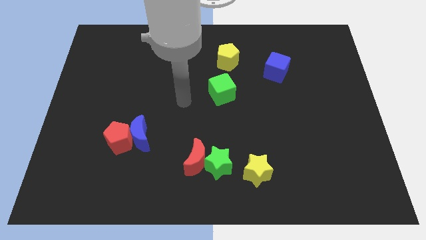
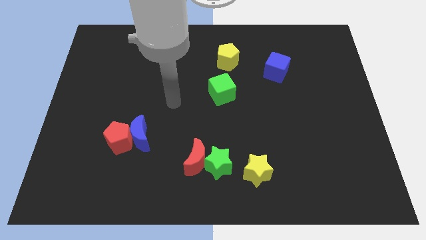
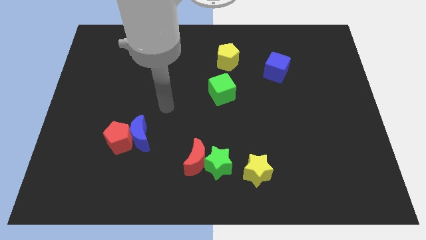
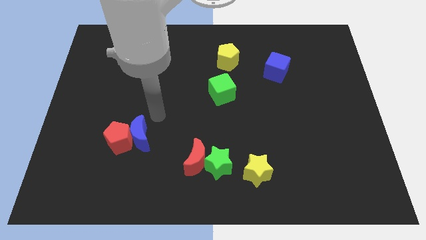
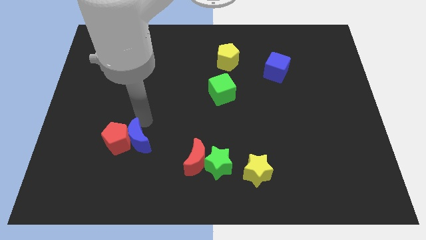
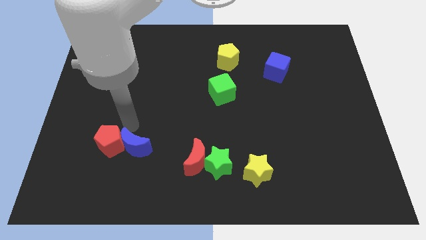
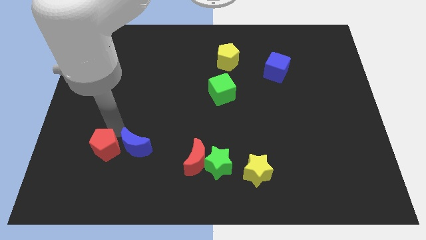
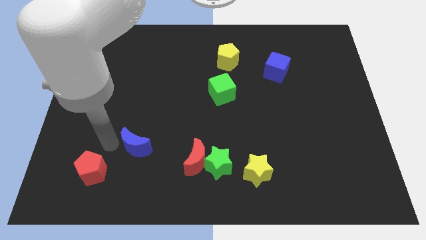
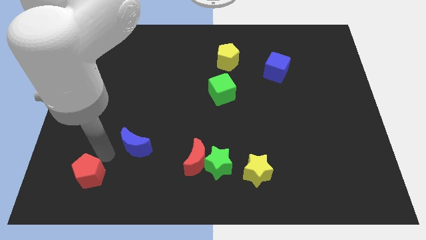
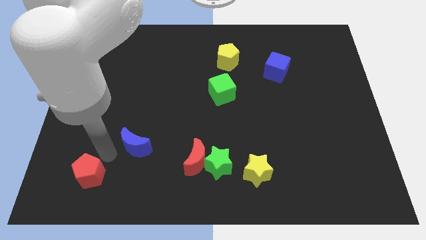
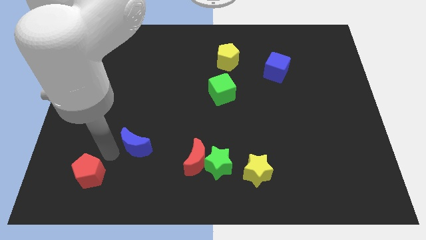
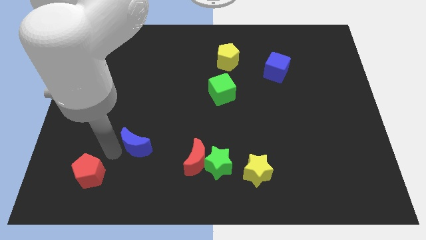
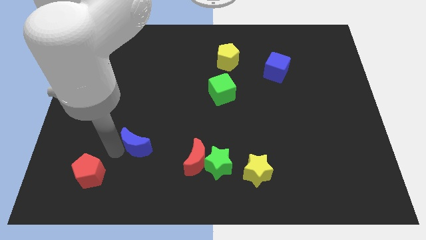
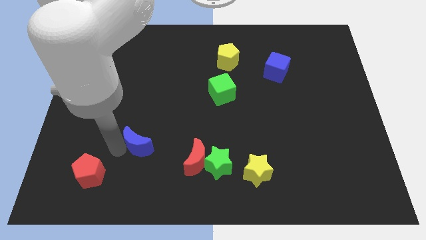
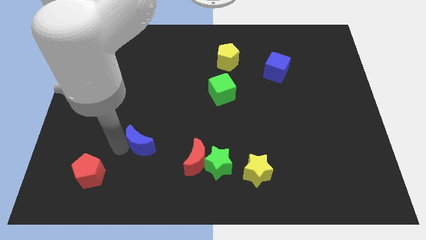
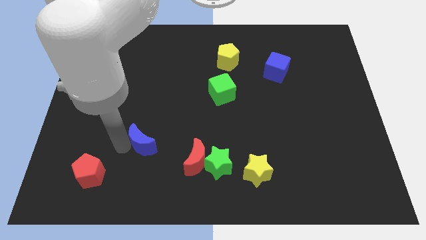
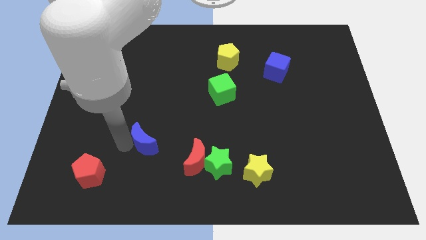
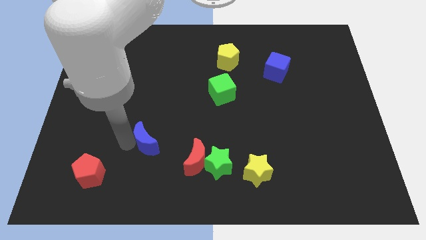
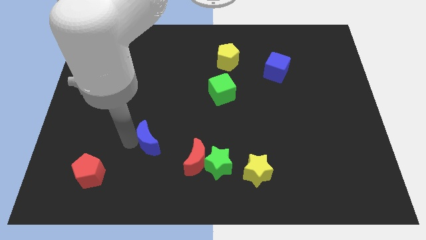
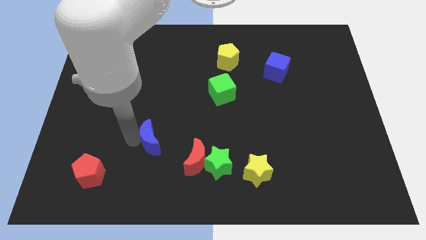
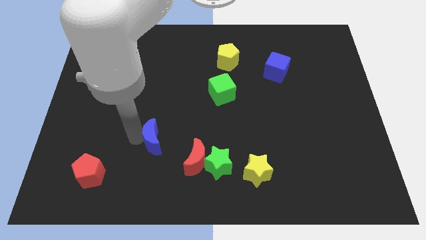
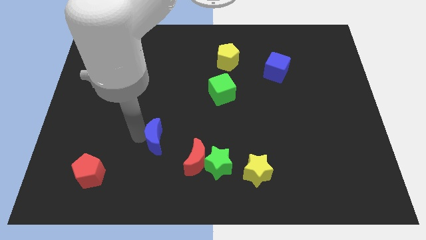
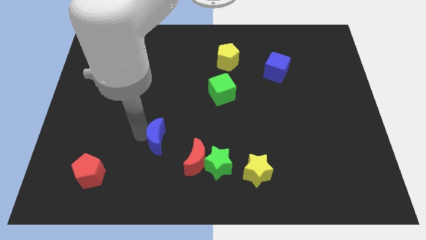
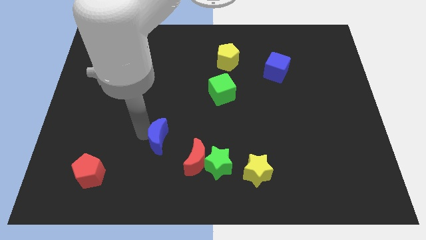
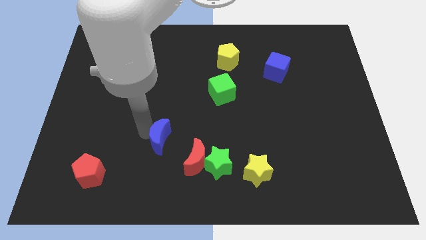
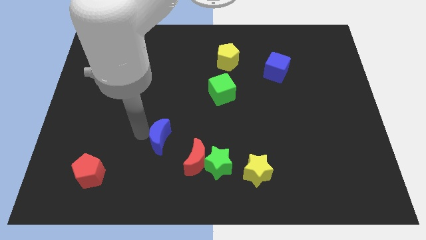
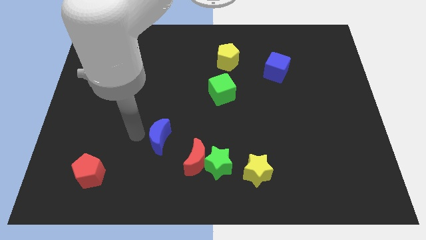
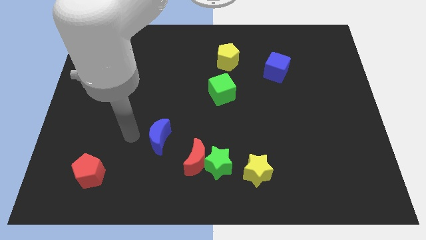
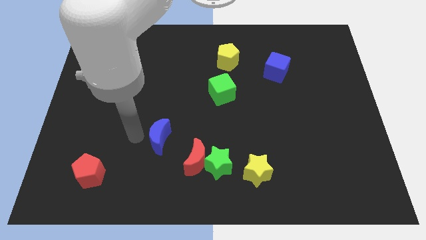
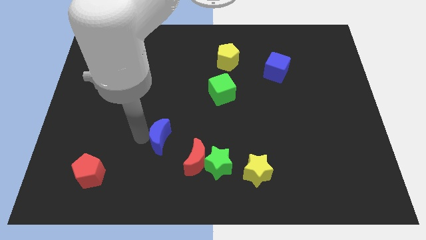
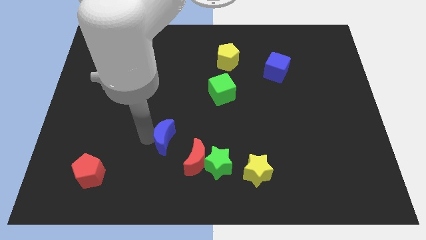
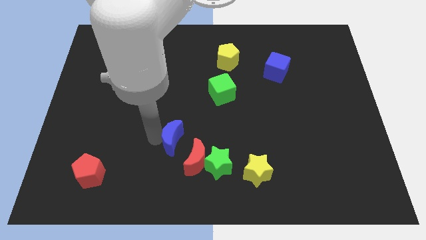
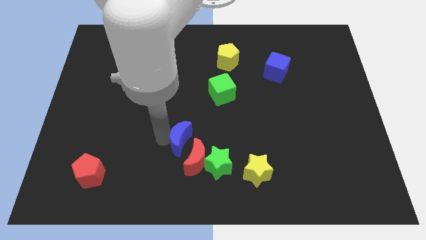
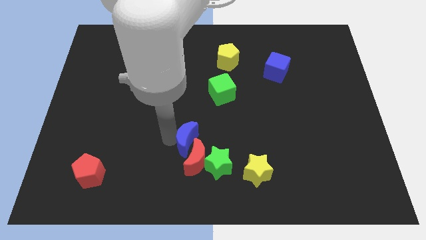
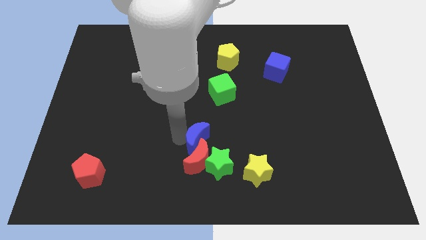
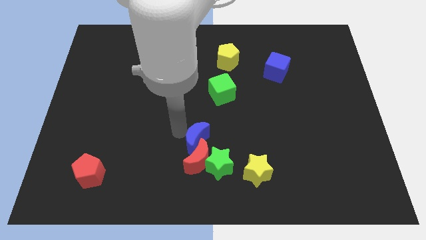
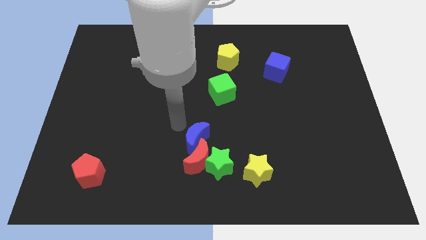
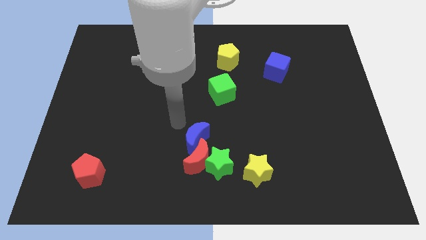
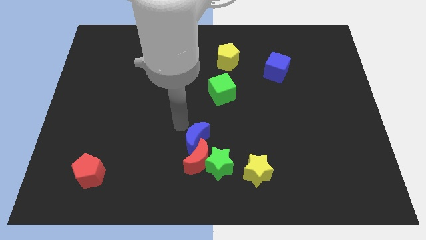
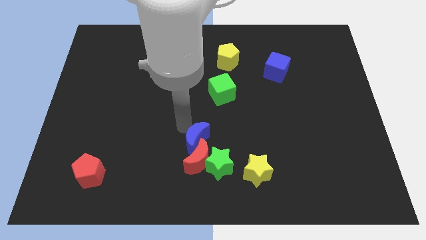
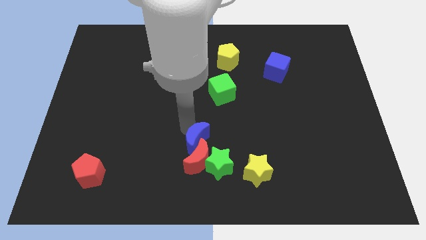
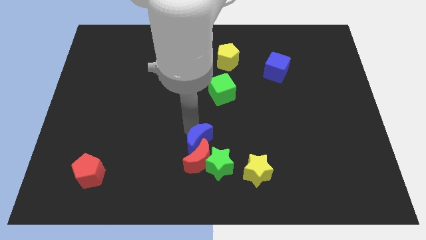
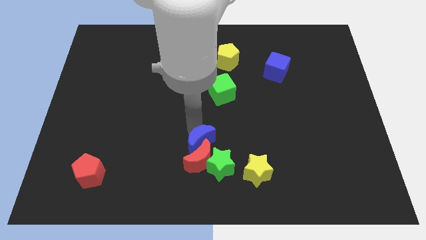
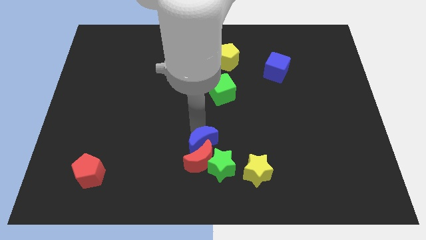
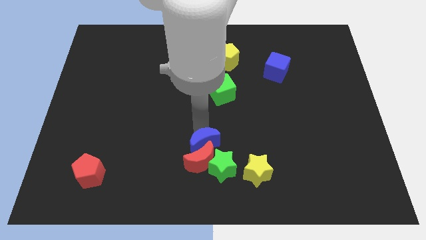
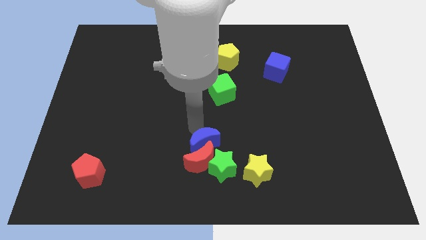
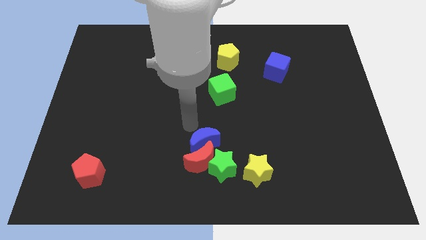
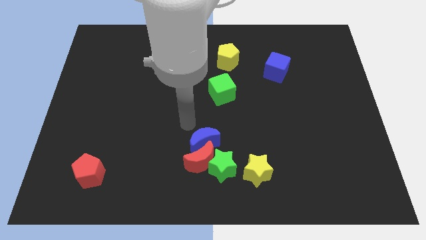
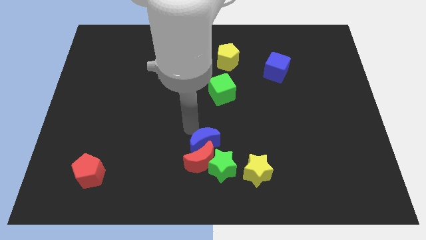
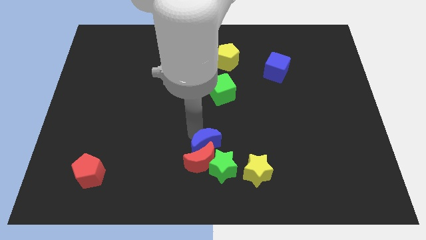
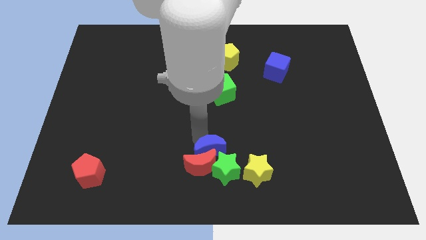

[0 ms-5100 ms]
push the blue moon towards the green star

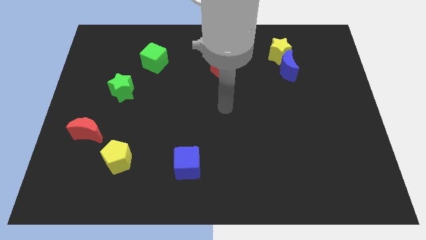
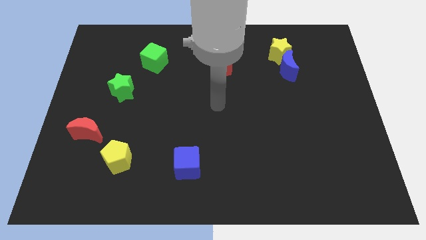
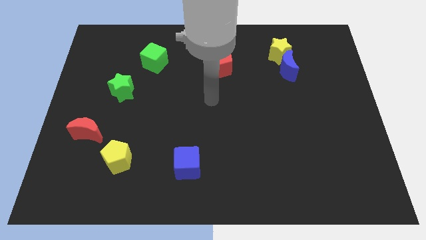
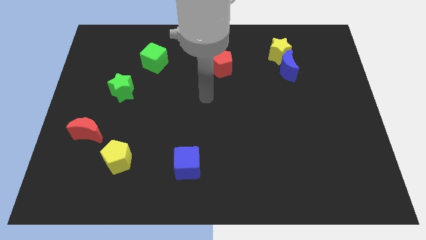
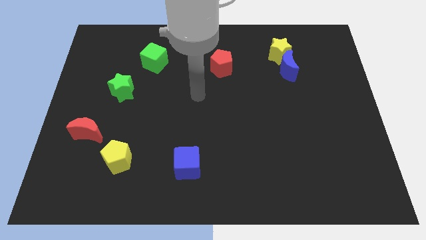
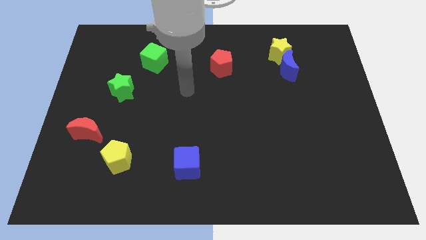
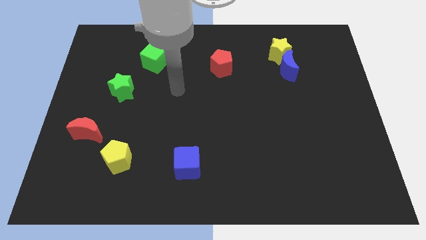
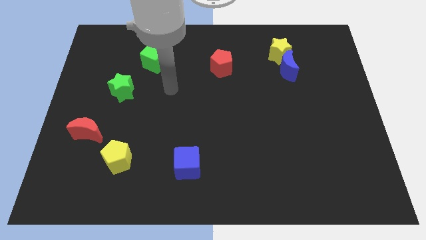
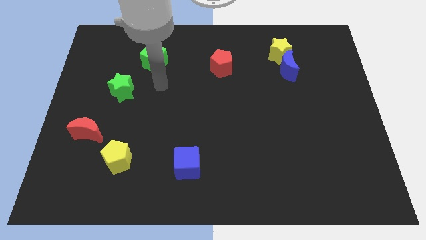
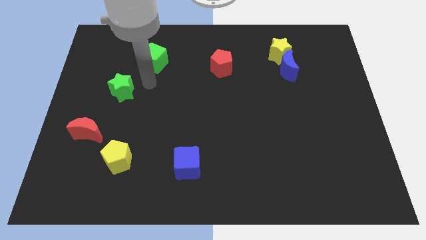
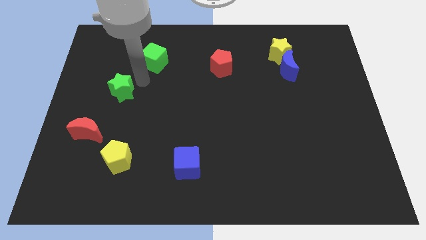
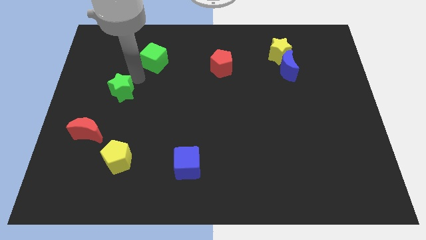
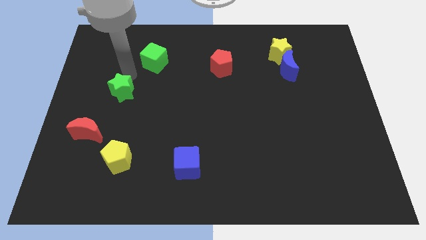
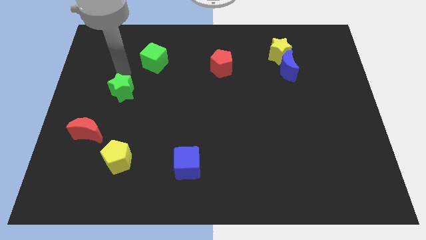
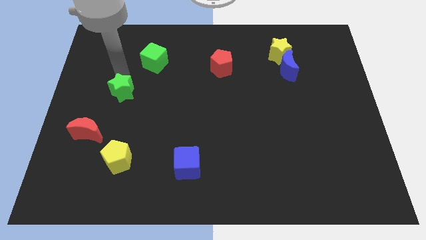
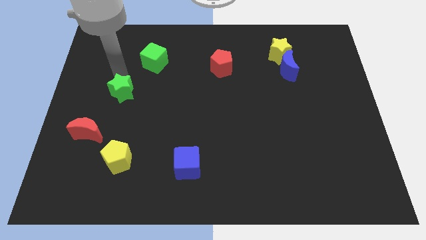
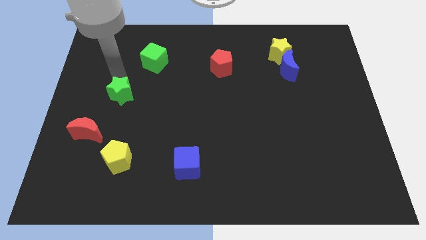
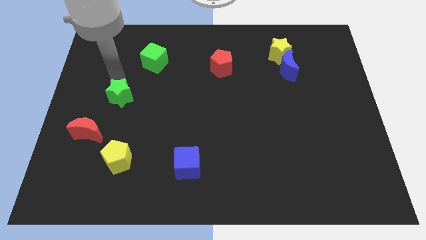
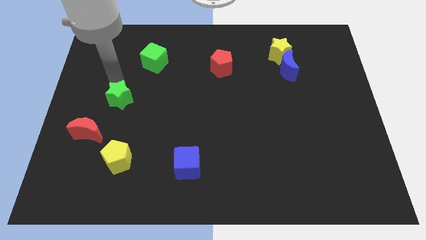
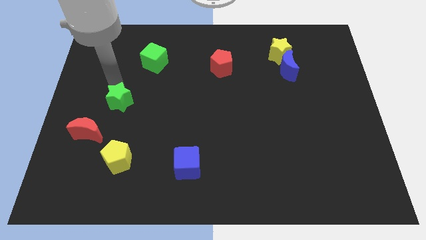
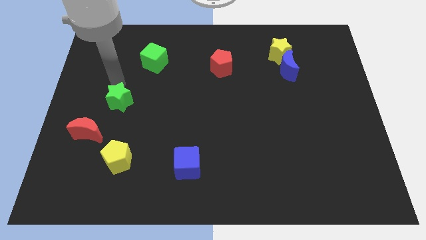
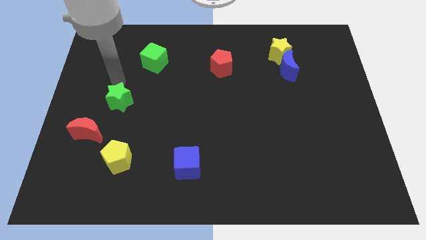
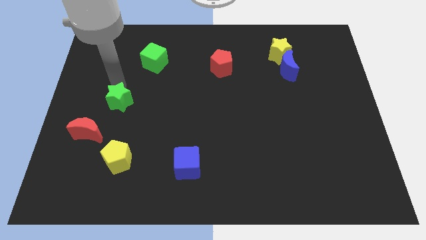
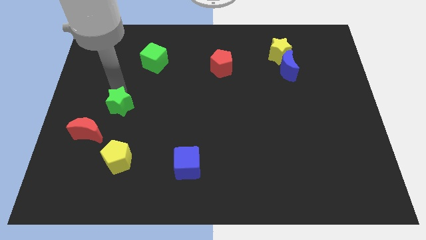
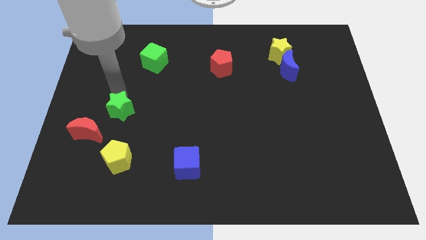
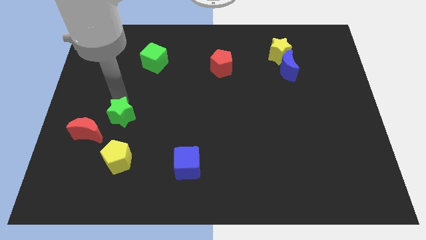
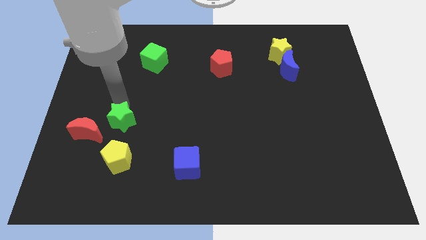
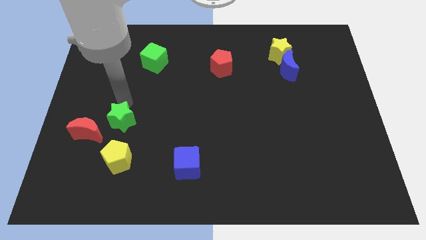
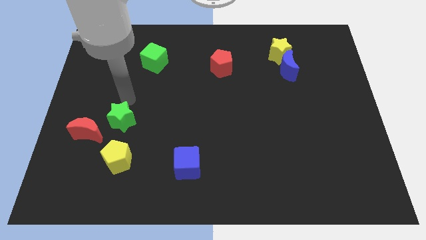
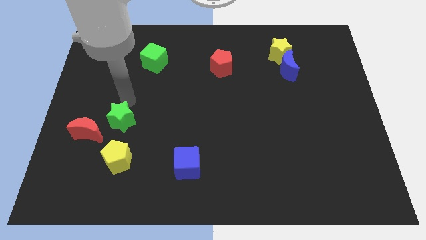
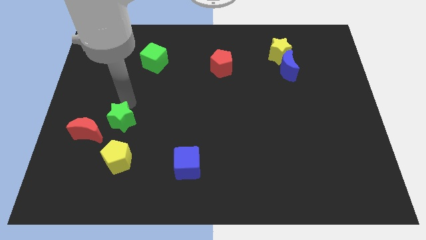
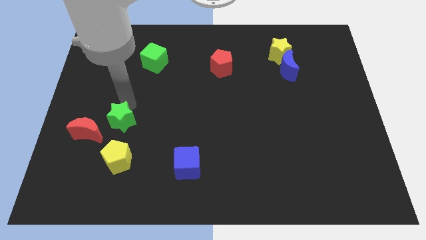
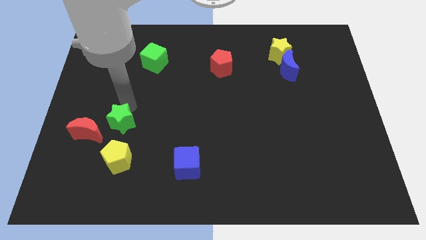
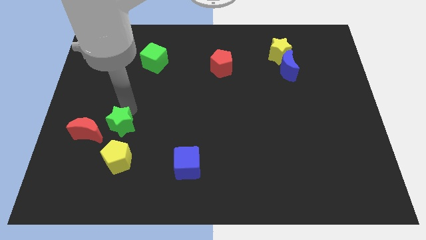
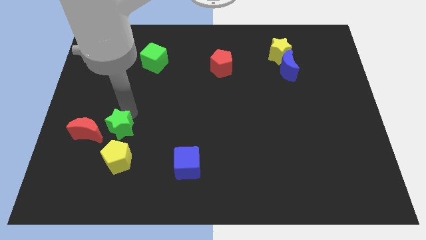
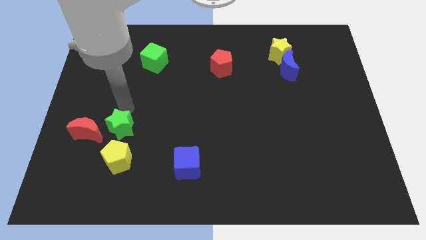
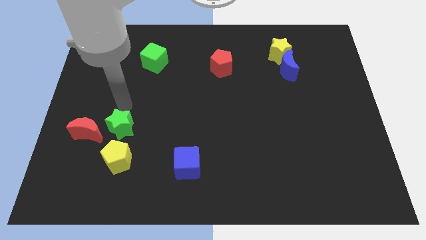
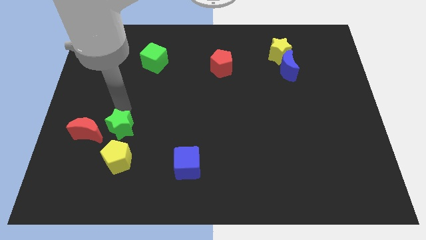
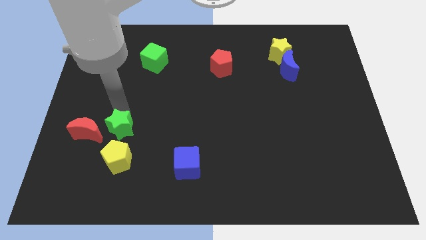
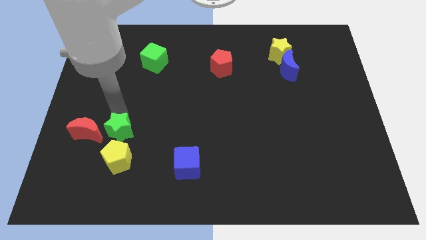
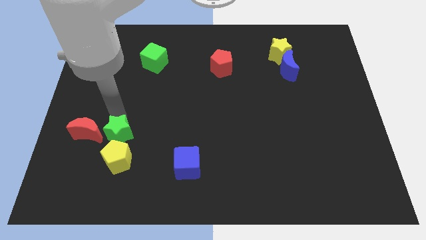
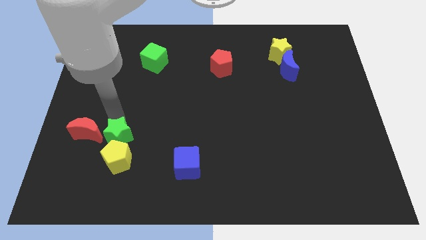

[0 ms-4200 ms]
slide the green star close to the yellow pentagon
